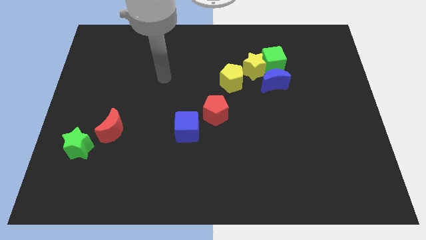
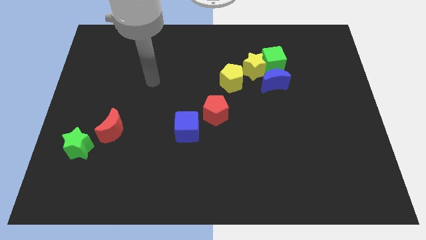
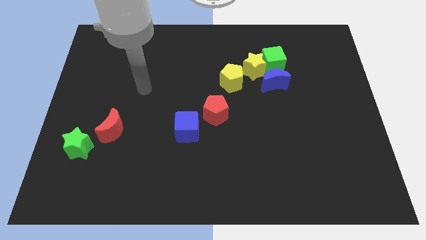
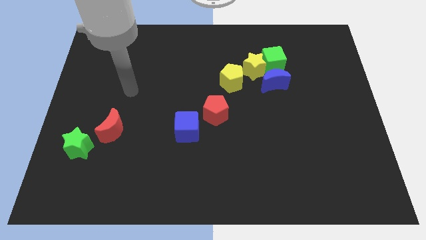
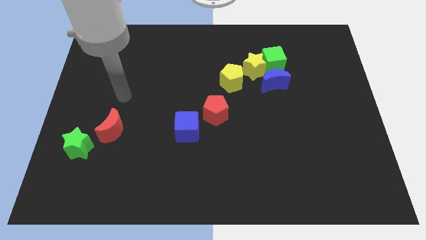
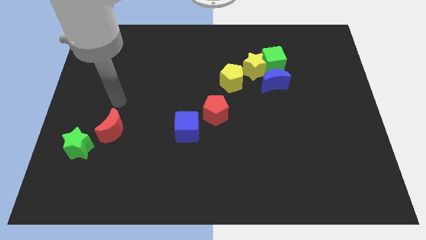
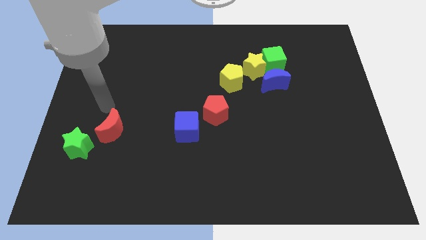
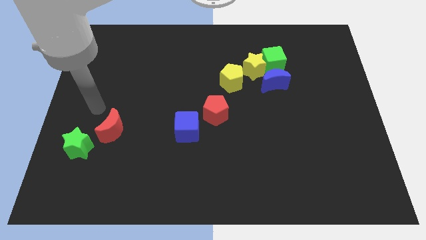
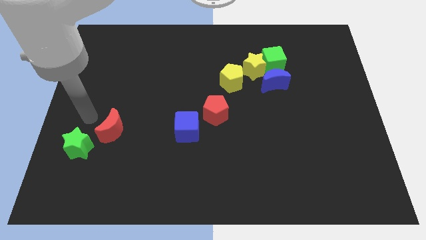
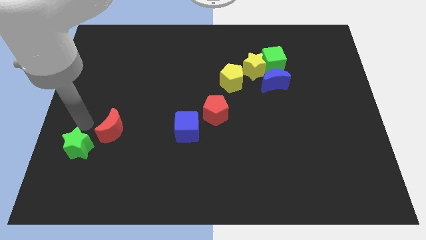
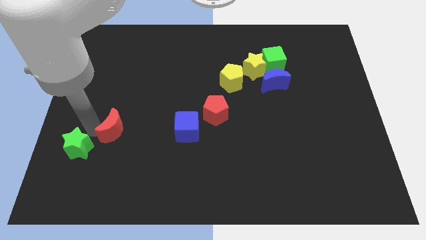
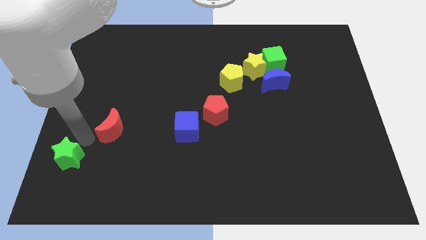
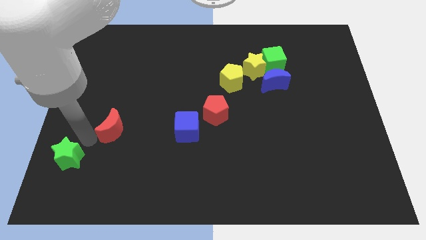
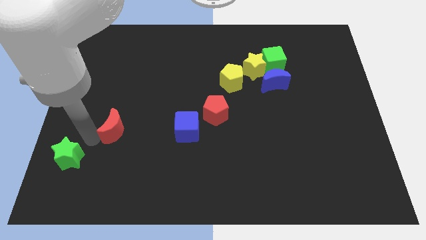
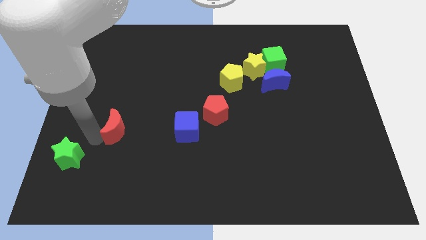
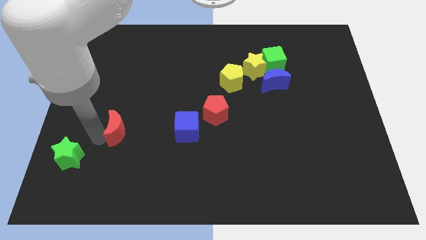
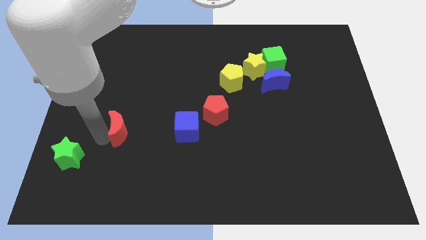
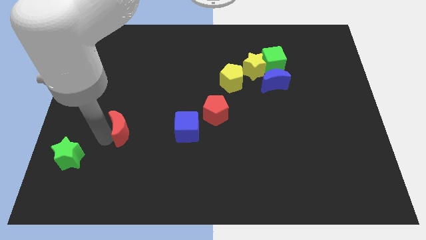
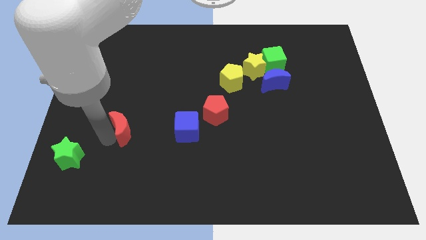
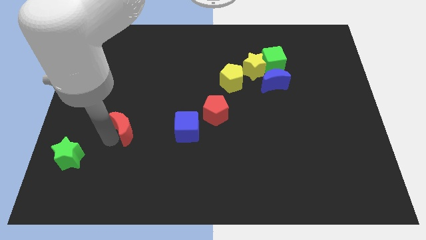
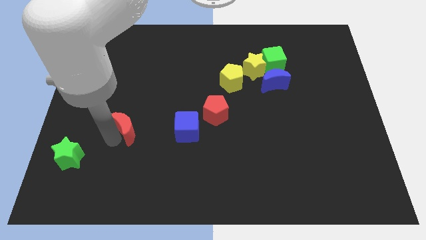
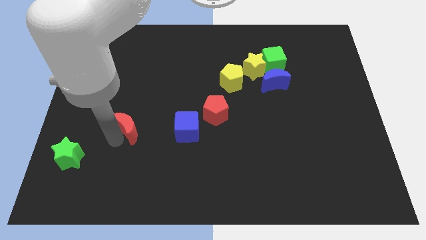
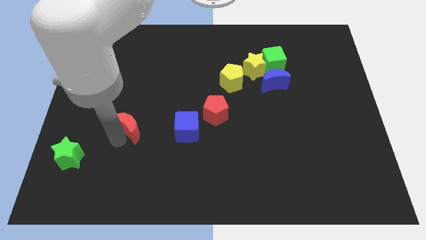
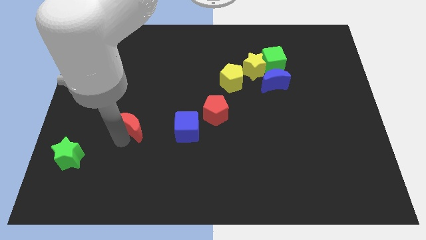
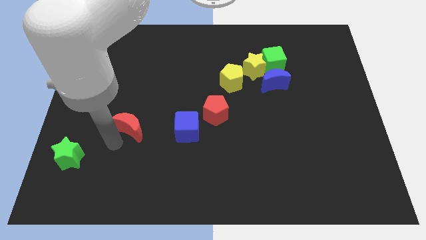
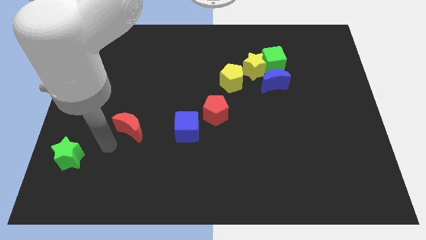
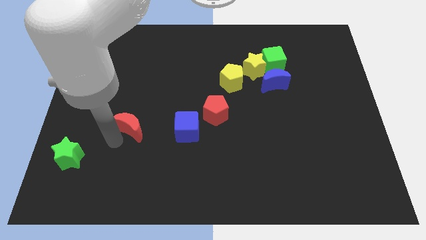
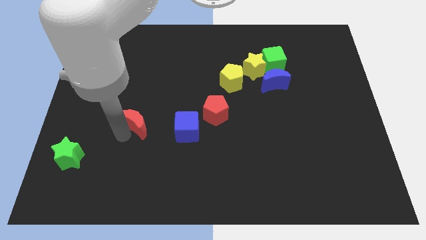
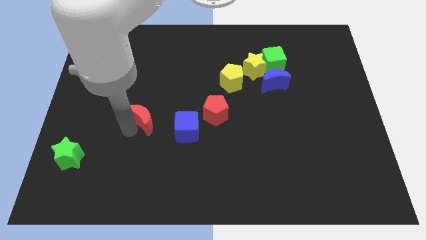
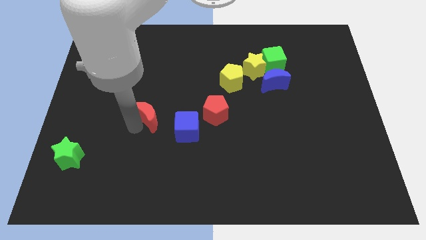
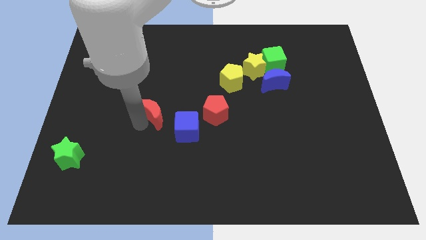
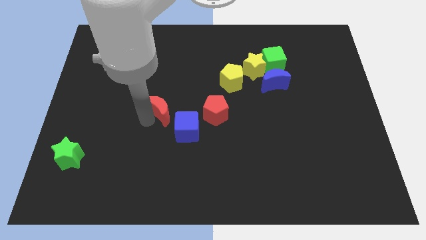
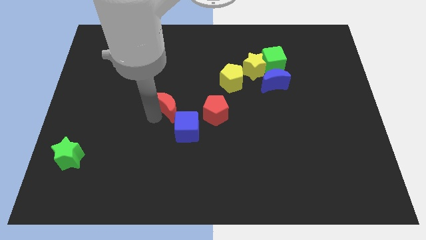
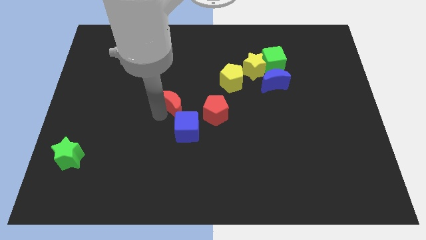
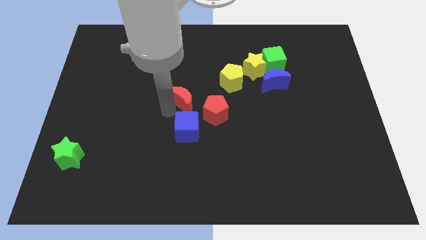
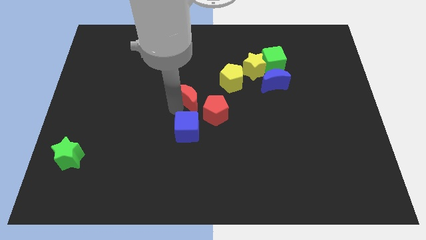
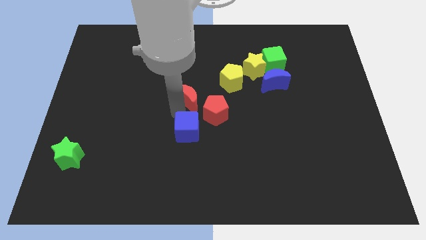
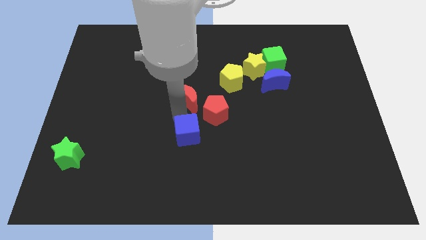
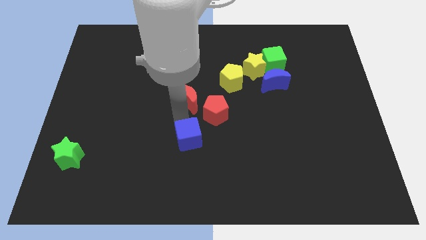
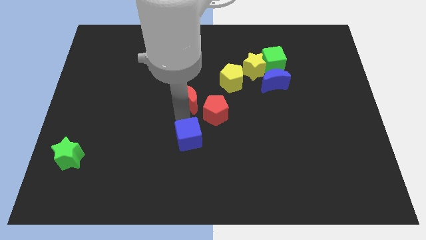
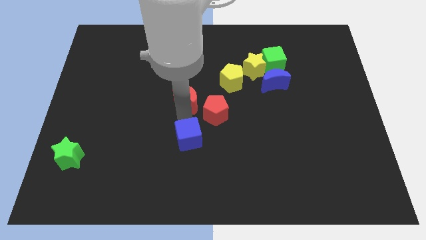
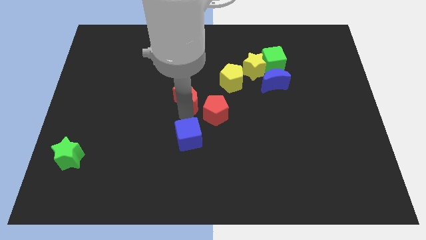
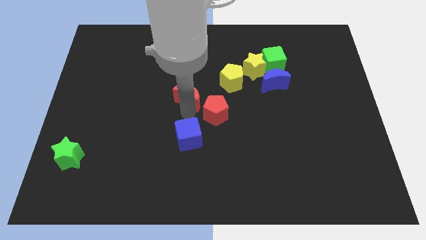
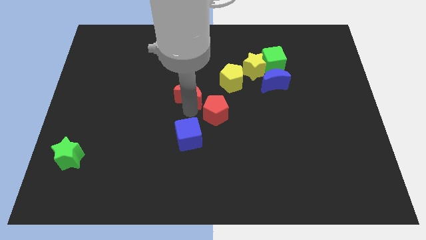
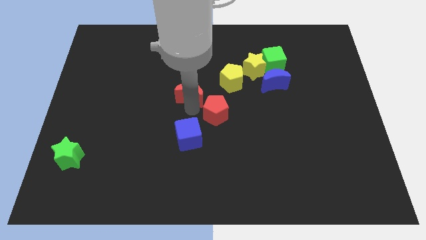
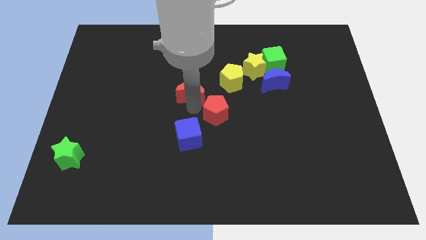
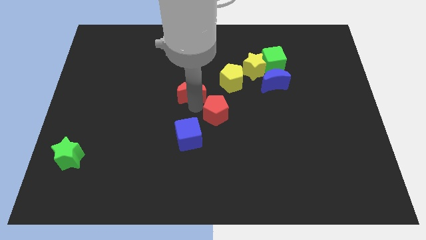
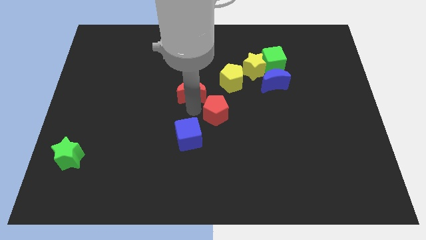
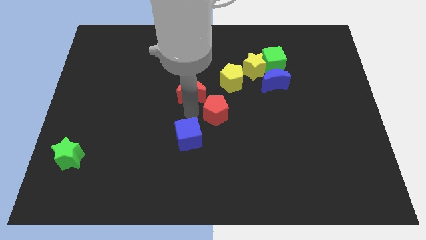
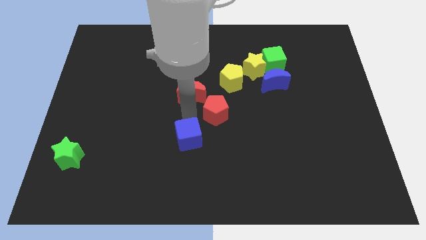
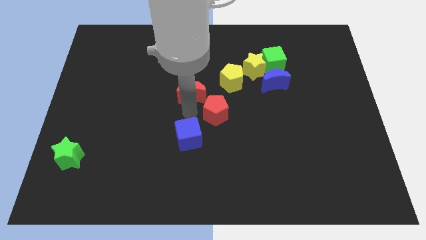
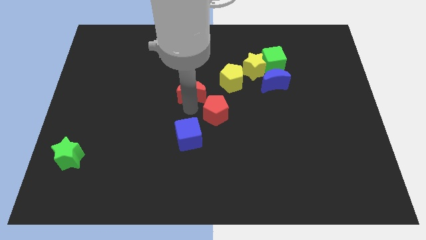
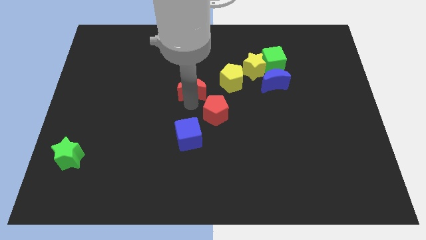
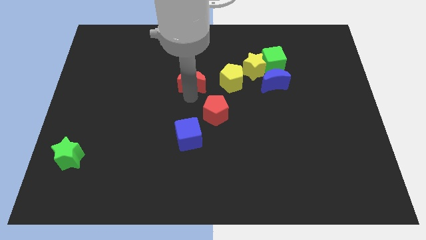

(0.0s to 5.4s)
move the red moon up and right

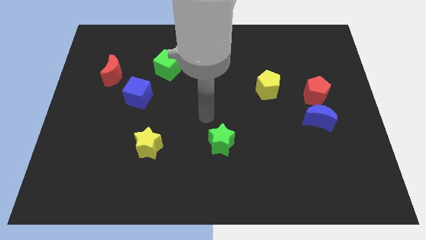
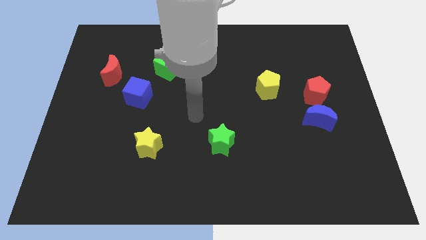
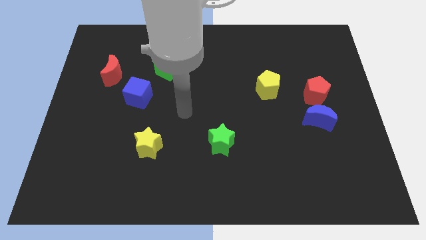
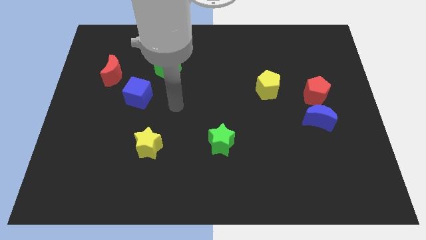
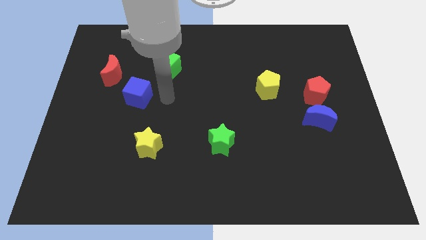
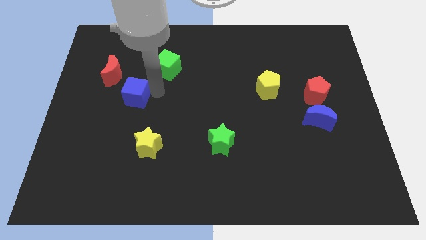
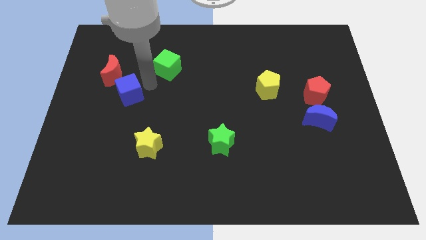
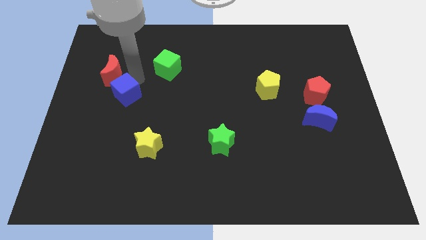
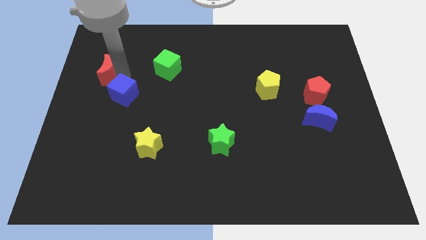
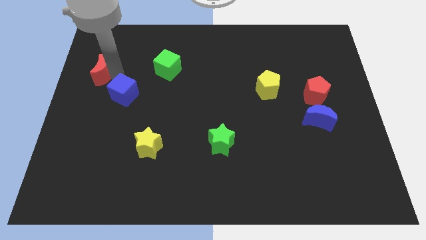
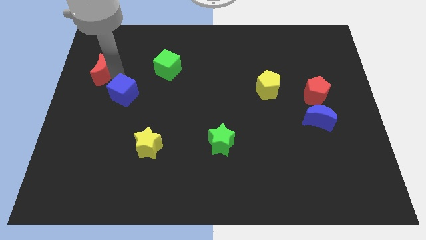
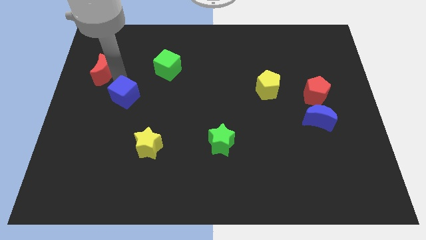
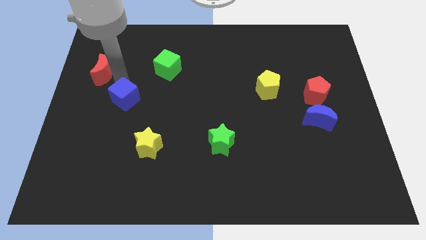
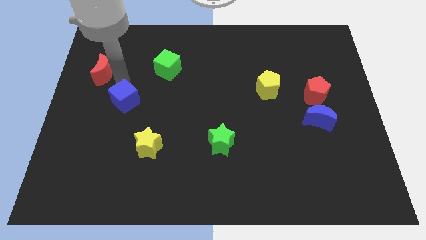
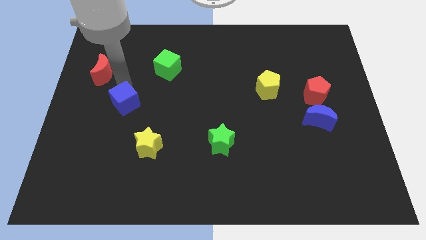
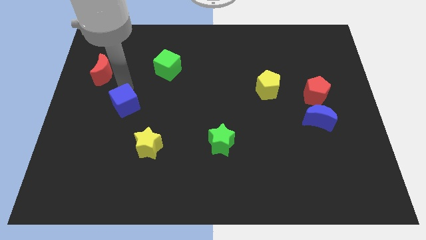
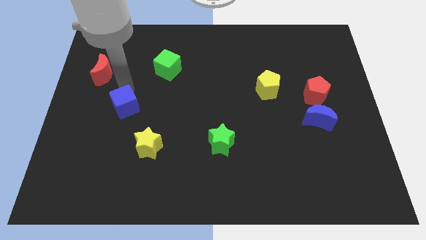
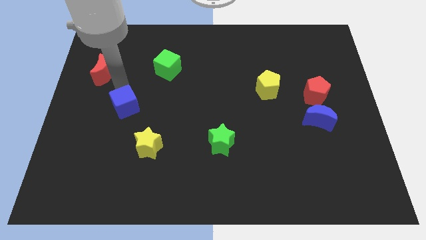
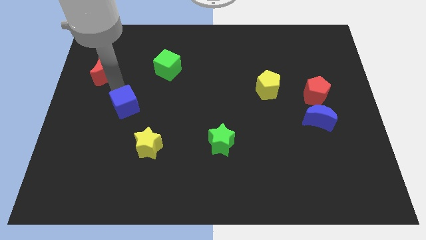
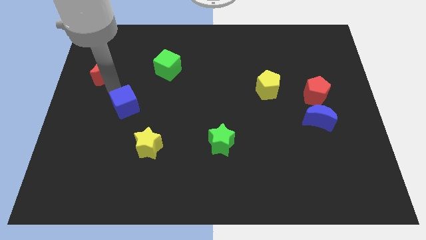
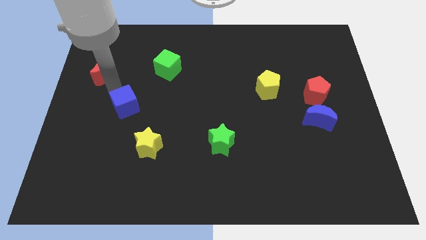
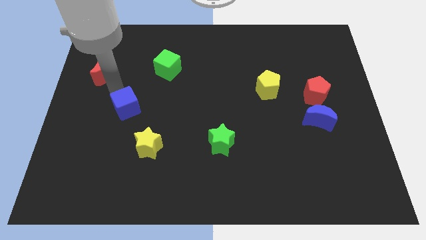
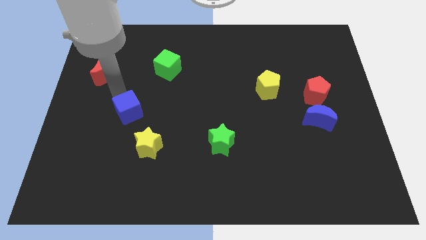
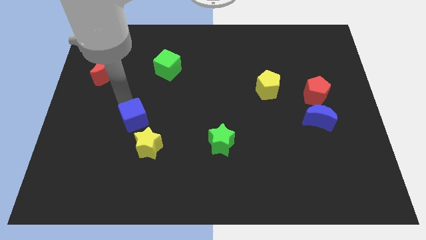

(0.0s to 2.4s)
slightly move the blue cube down

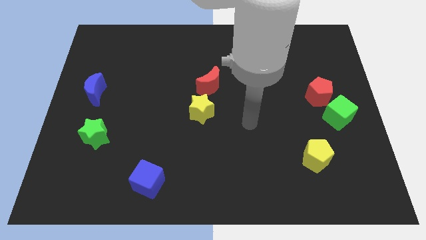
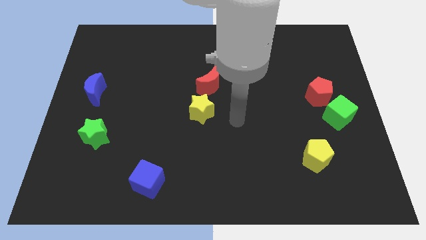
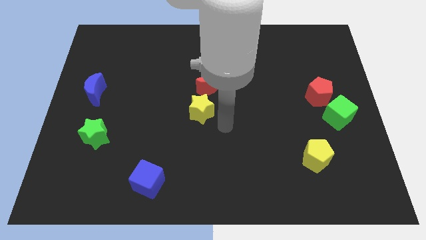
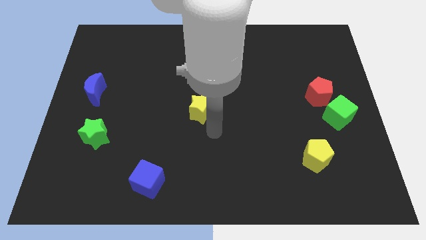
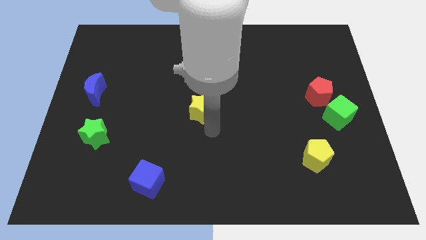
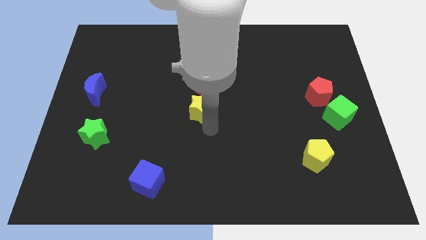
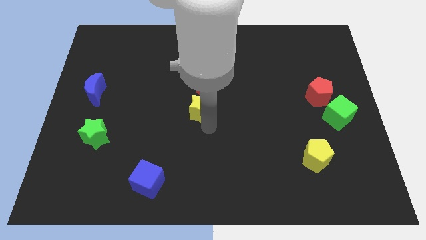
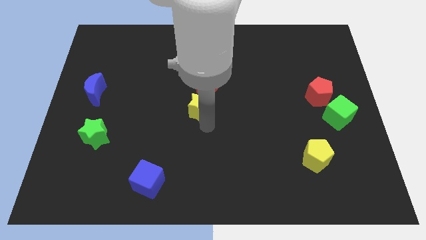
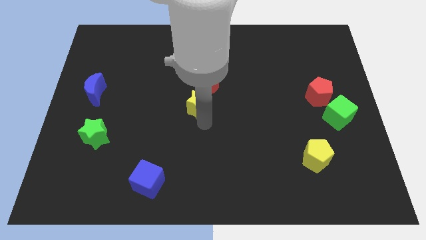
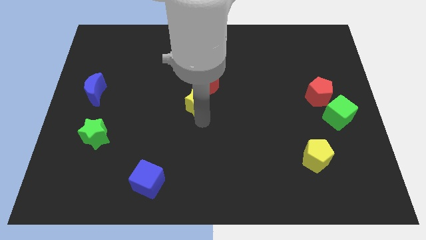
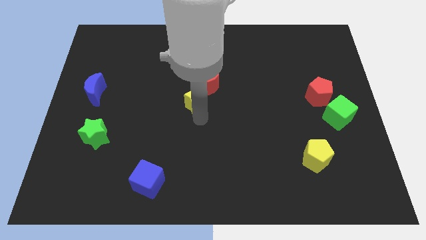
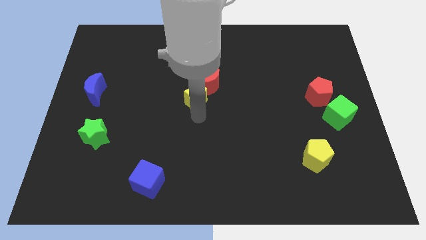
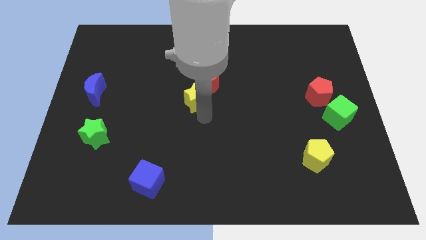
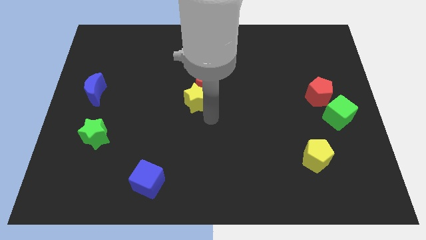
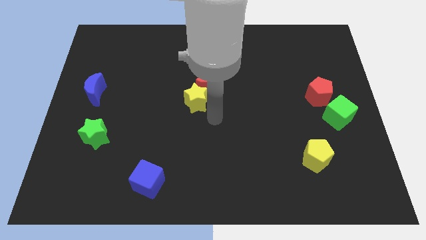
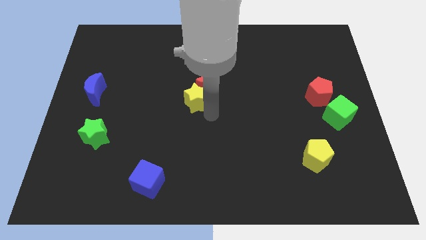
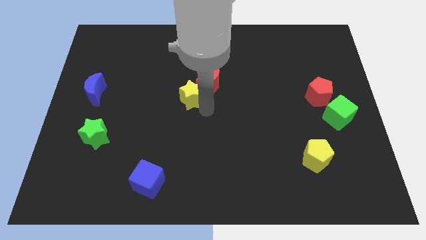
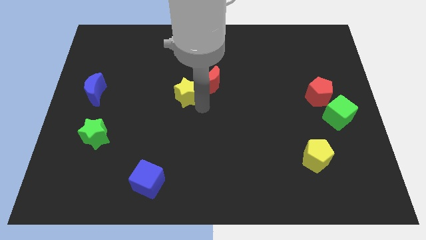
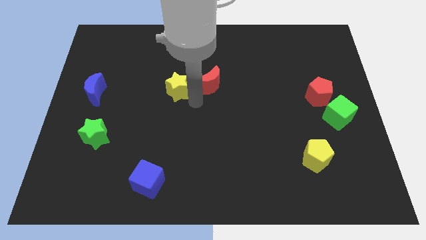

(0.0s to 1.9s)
push the yellow star slightly up and to the left
